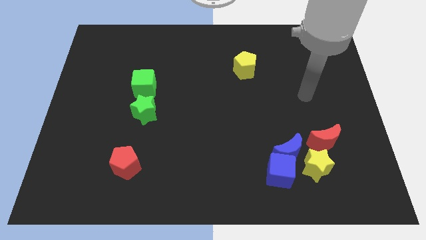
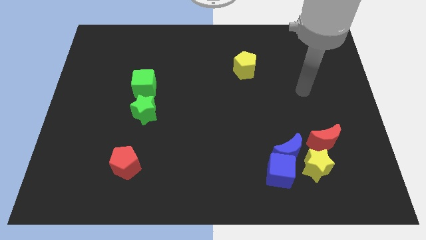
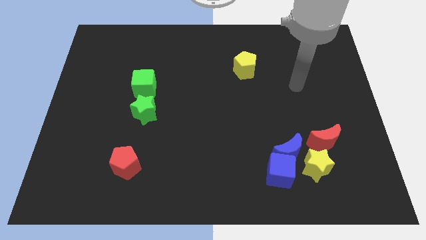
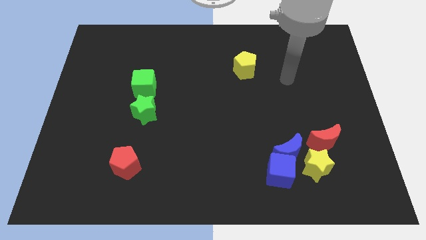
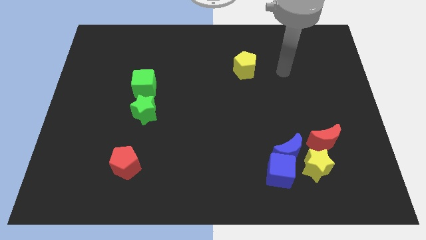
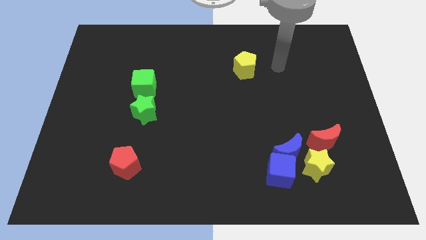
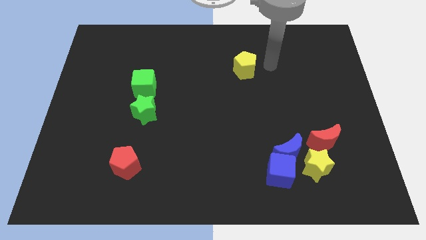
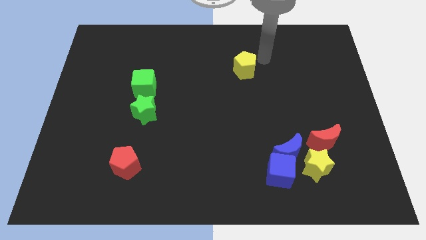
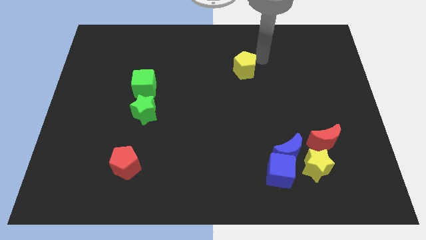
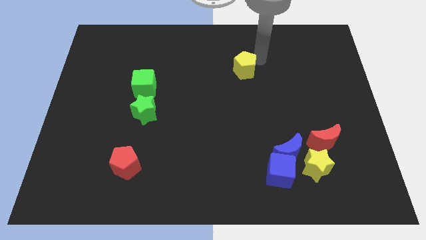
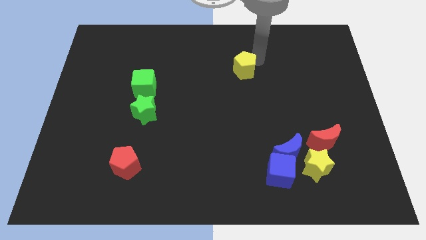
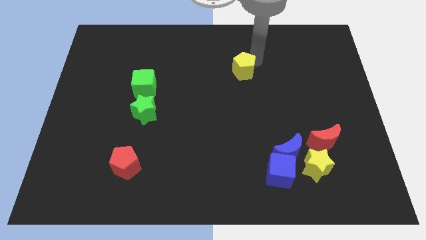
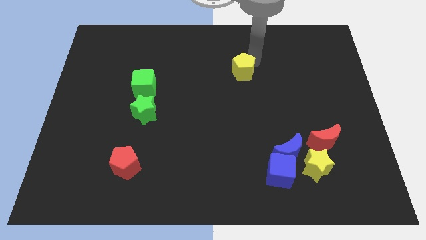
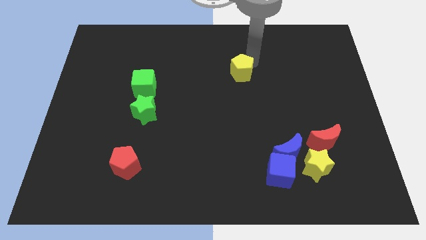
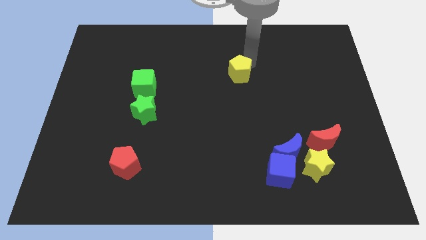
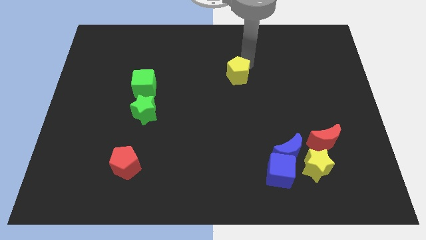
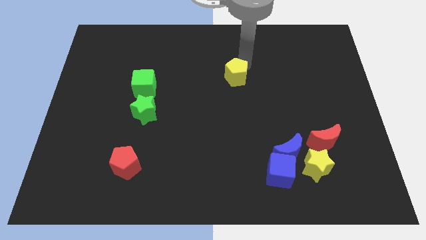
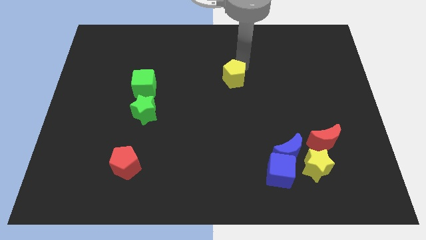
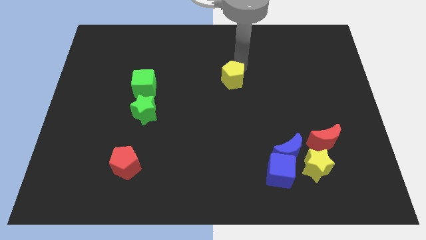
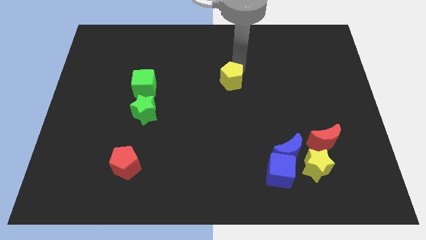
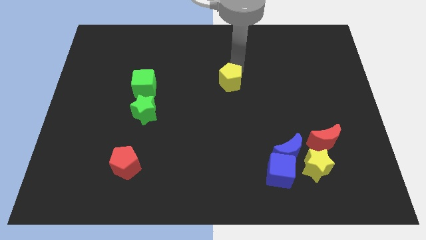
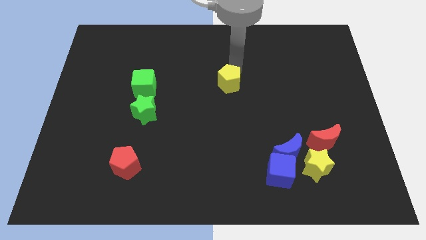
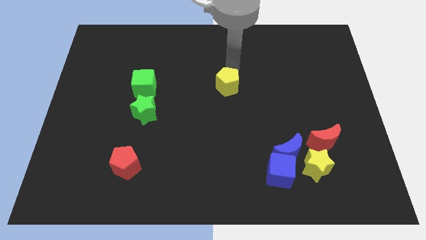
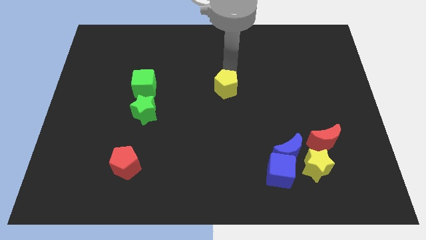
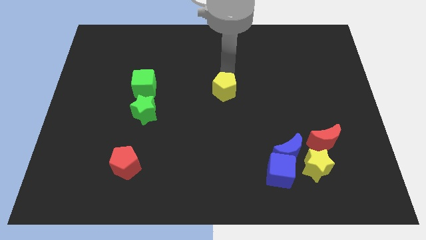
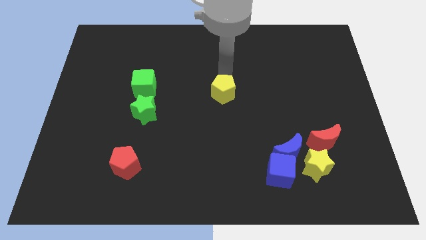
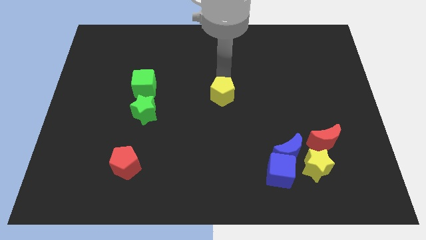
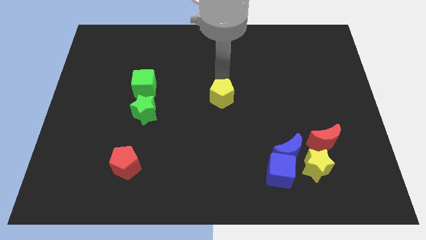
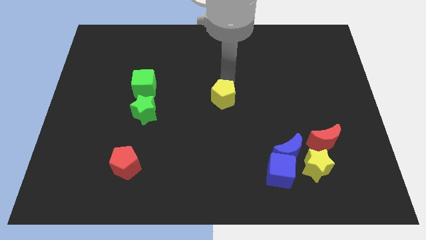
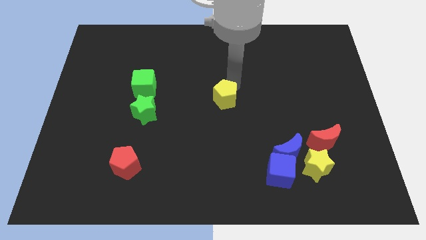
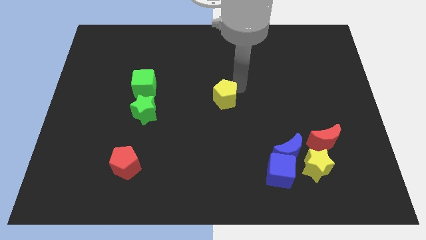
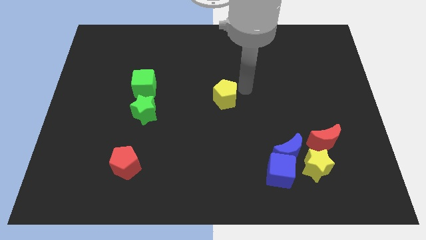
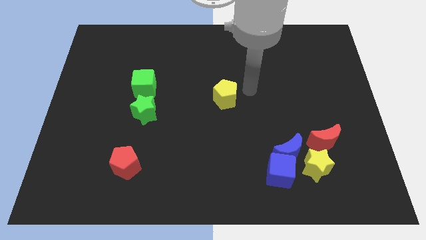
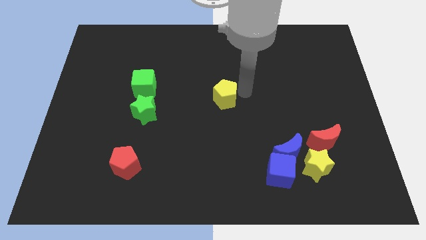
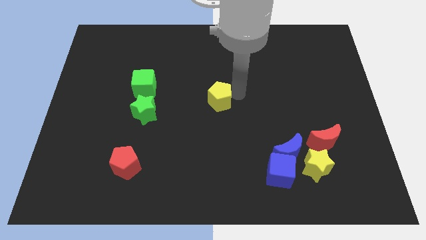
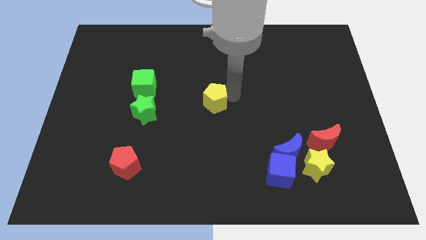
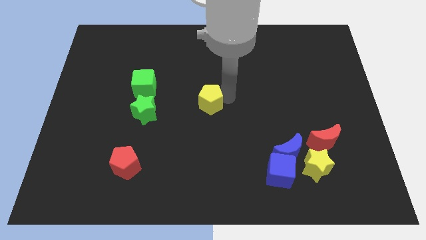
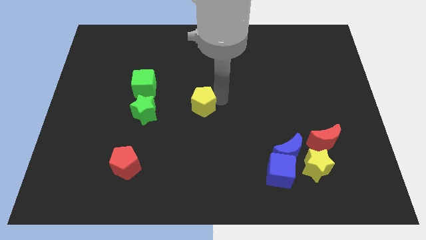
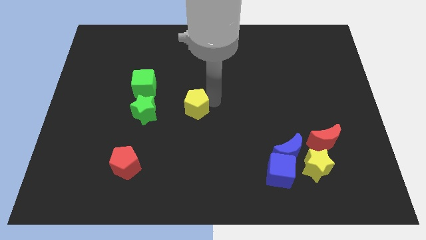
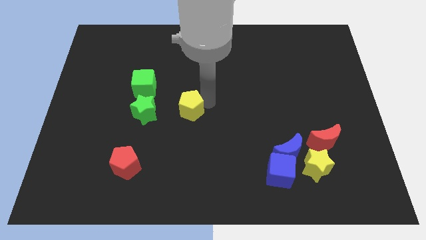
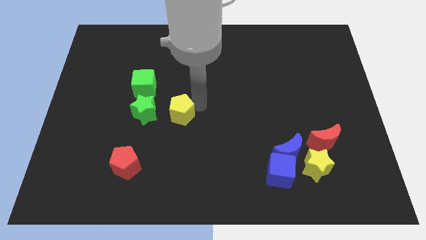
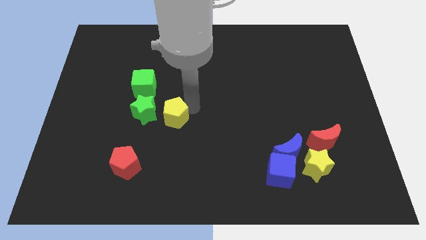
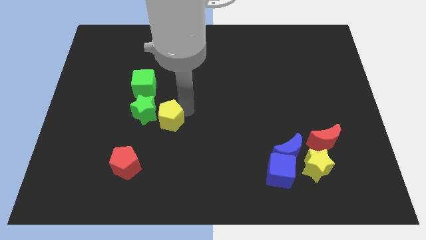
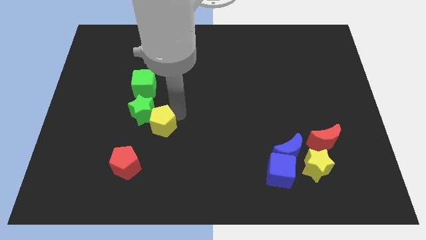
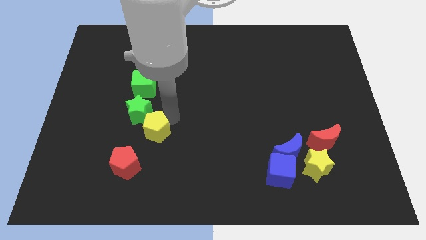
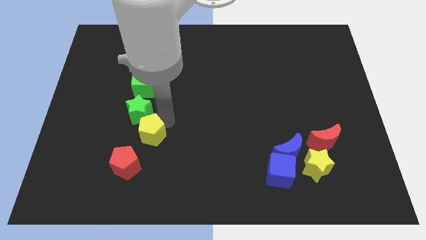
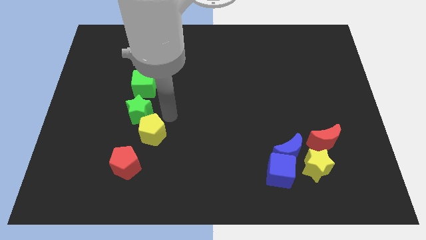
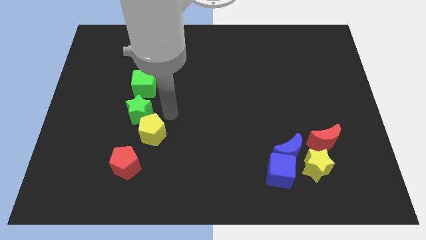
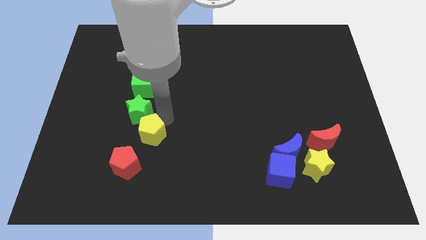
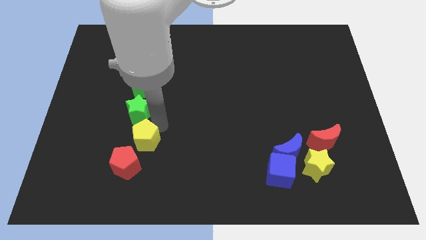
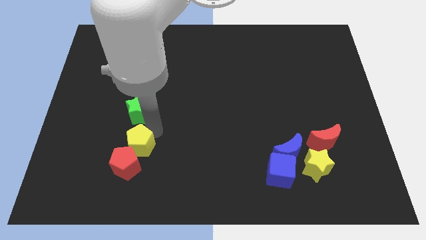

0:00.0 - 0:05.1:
slide the yellow pentagon next to the red pentagon

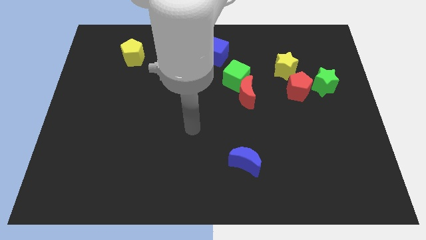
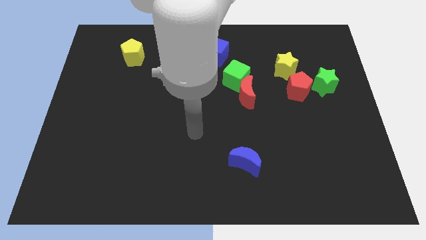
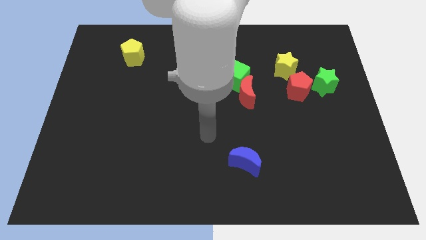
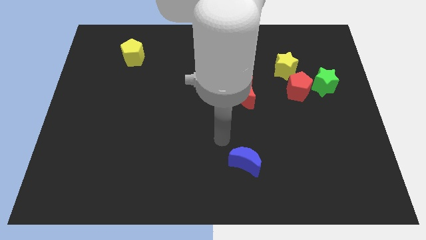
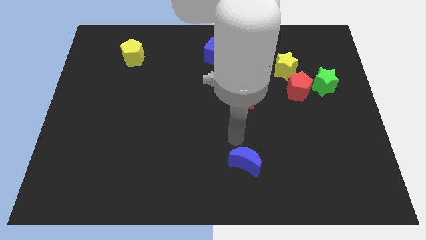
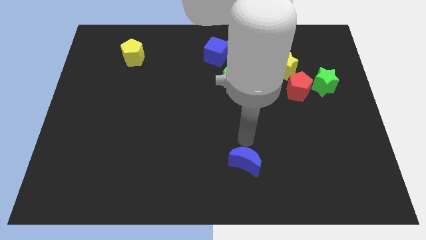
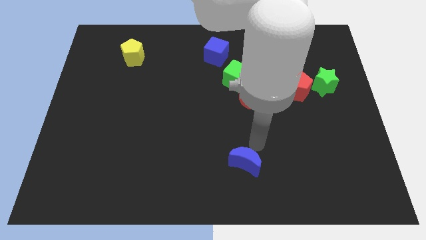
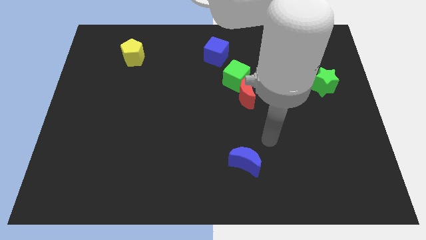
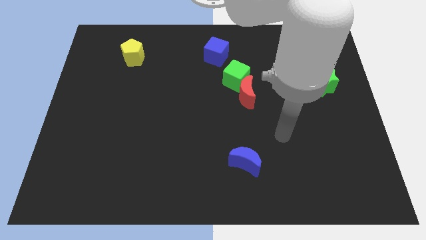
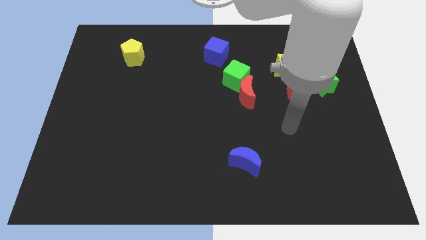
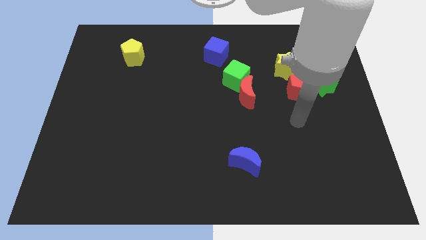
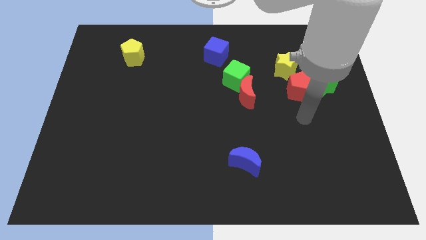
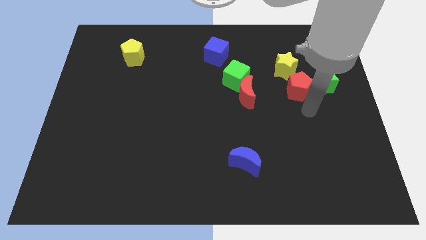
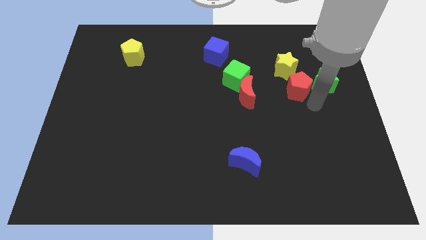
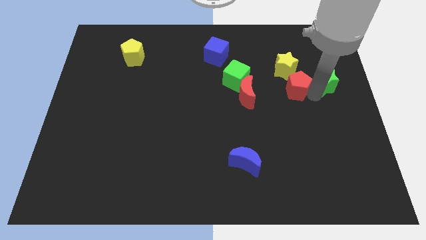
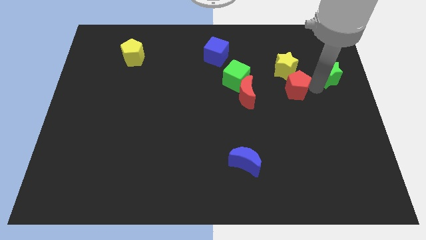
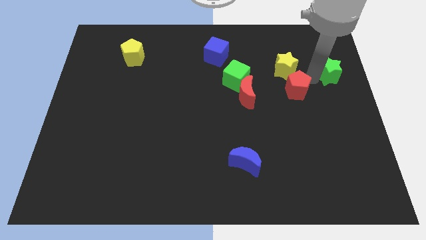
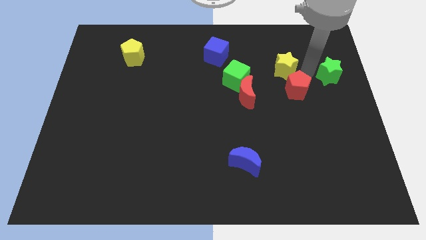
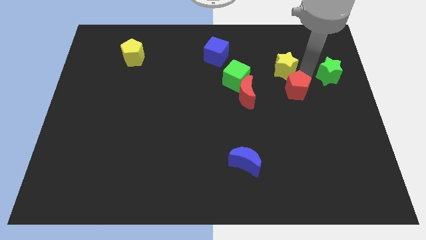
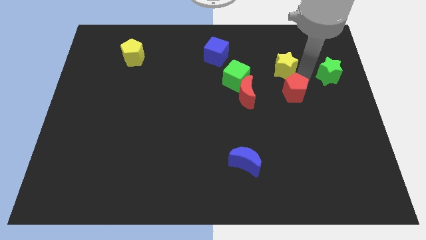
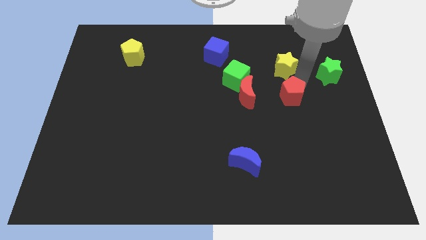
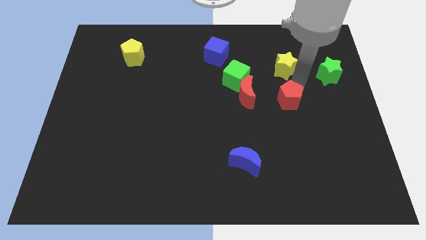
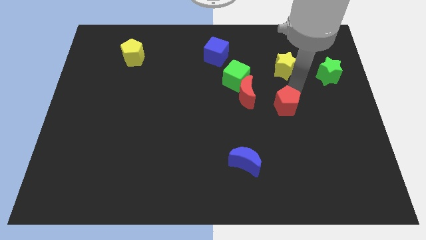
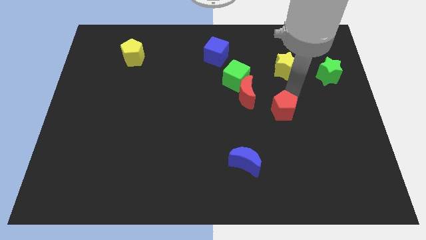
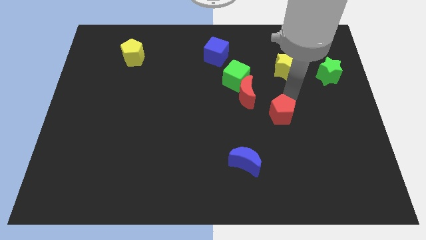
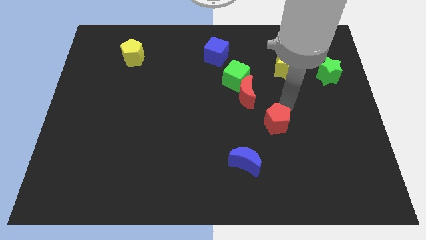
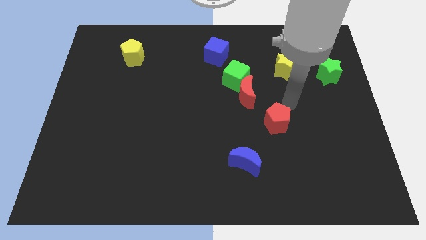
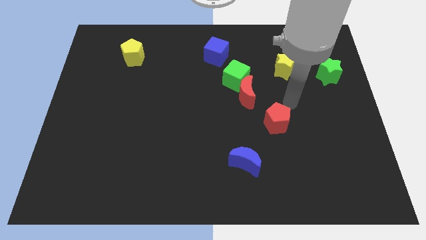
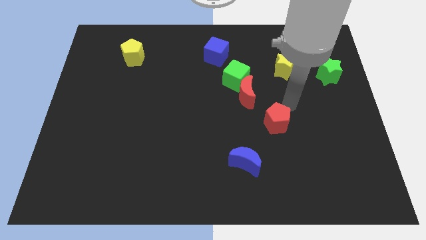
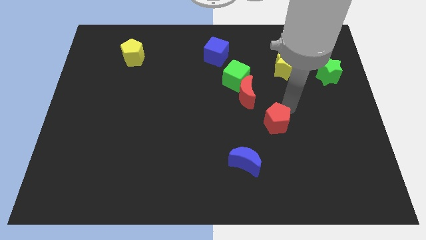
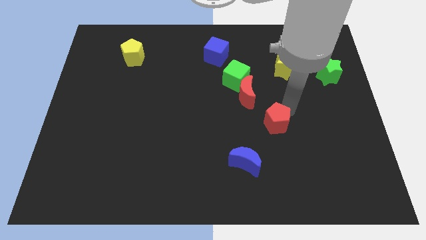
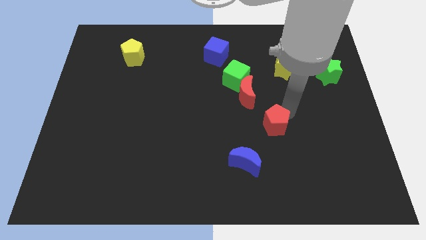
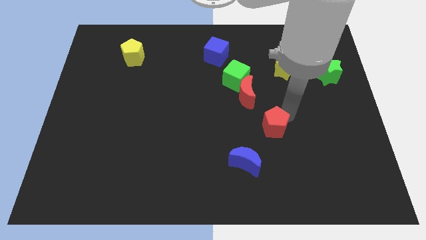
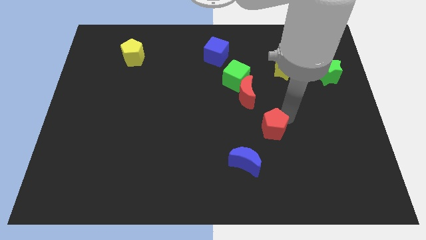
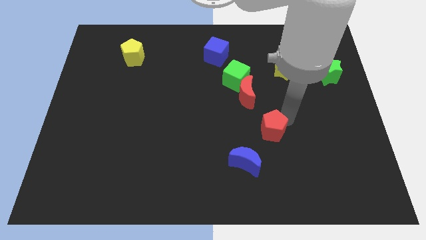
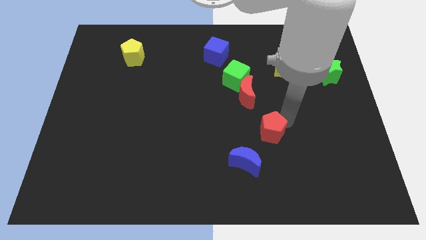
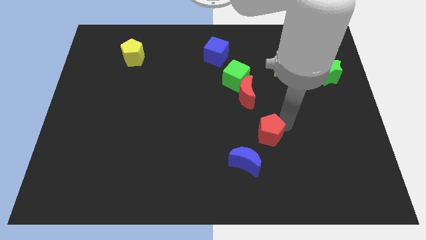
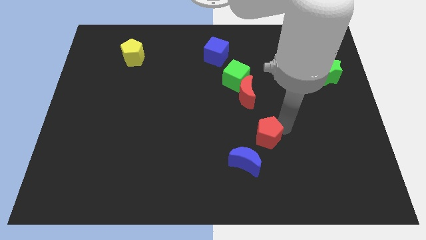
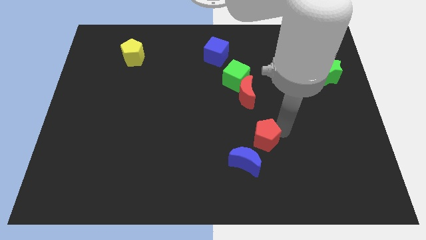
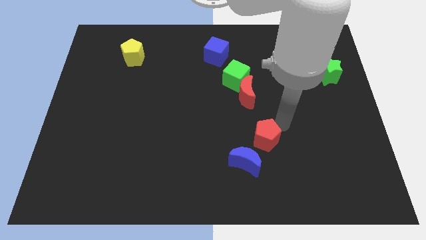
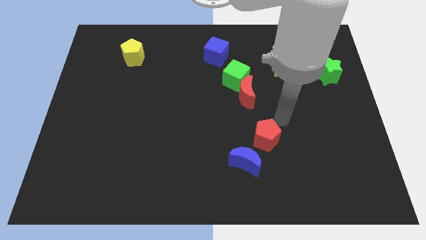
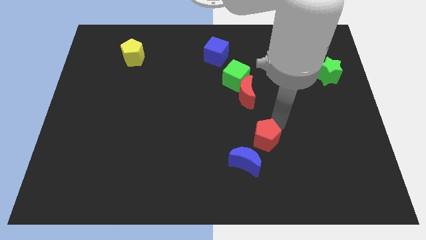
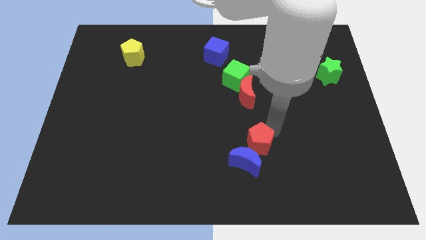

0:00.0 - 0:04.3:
move the red pentagon to the blue moon
